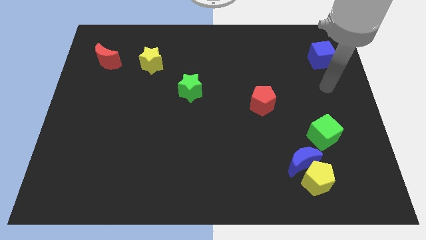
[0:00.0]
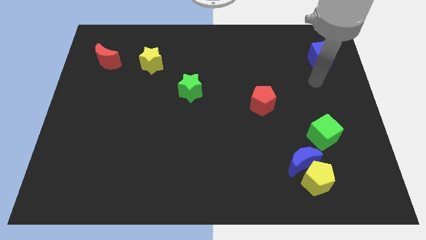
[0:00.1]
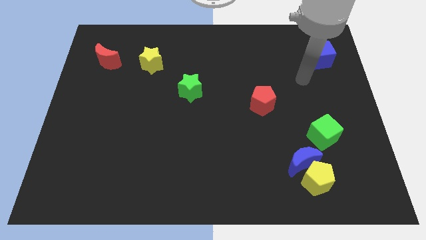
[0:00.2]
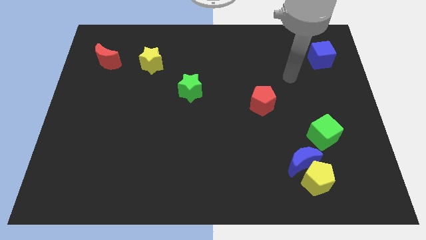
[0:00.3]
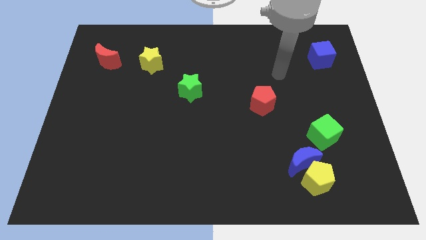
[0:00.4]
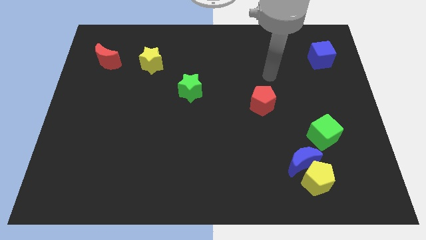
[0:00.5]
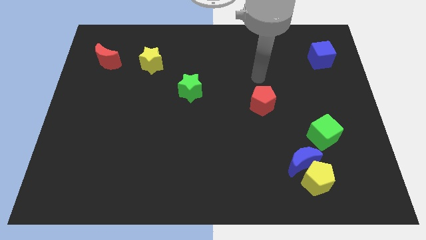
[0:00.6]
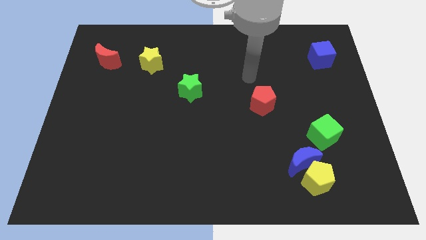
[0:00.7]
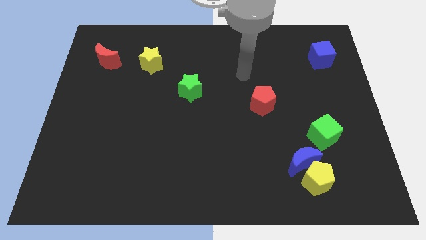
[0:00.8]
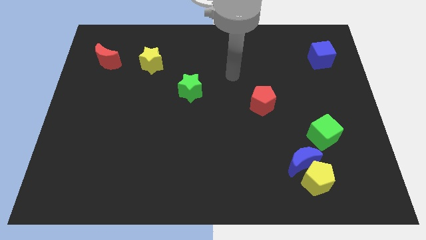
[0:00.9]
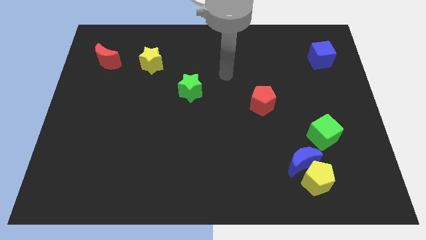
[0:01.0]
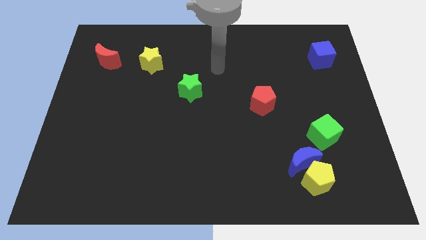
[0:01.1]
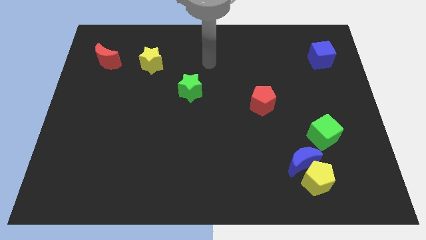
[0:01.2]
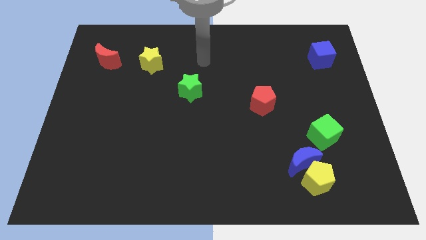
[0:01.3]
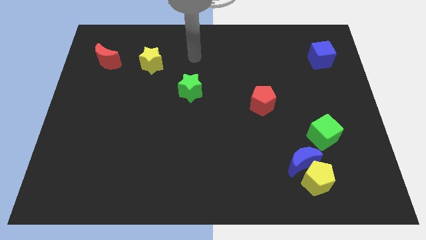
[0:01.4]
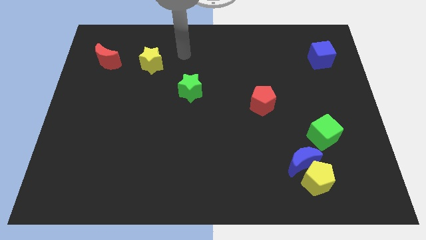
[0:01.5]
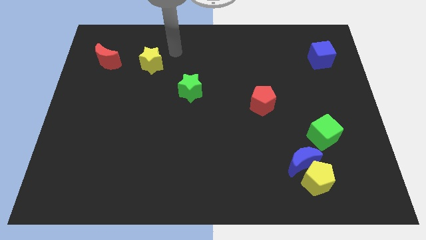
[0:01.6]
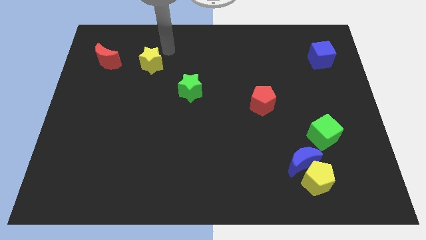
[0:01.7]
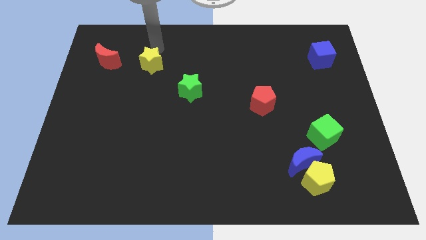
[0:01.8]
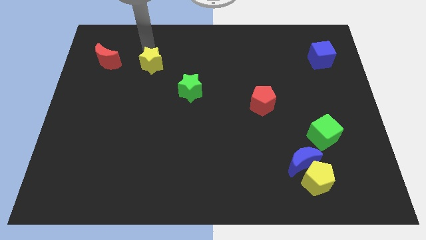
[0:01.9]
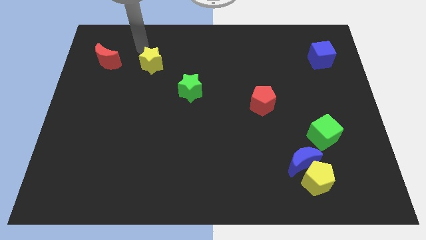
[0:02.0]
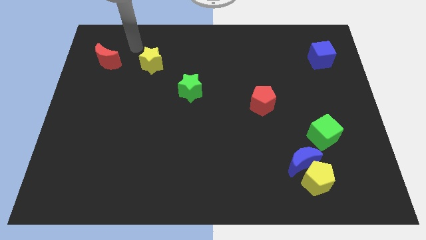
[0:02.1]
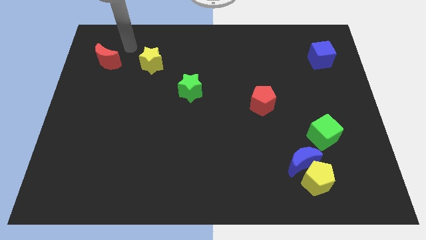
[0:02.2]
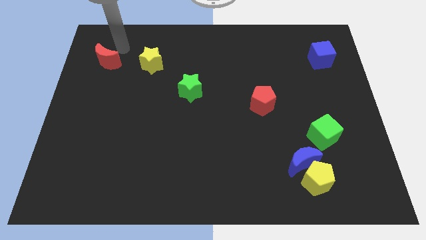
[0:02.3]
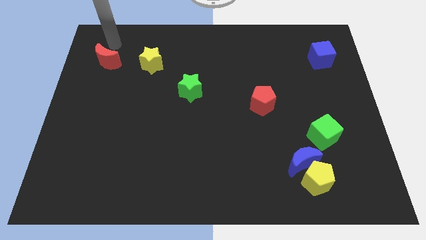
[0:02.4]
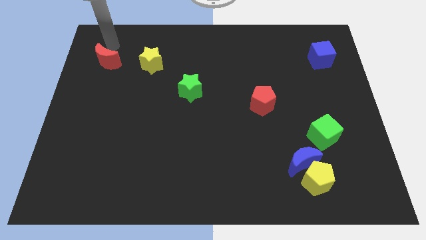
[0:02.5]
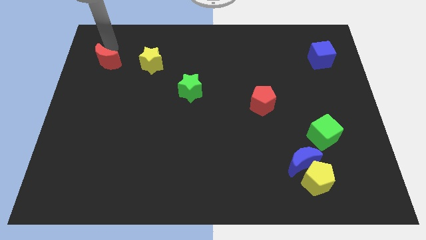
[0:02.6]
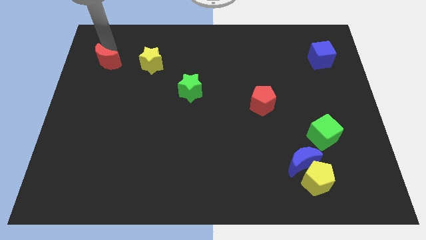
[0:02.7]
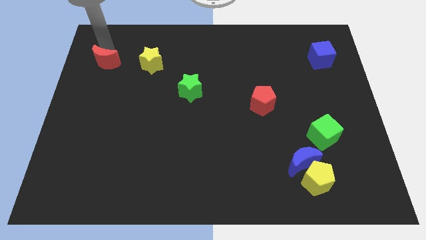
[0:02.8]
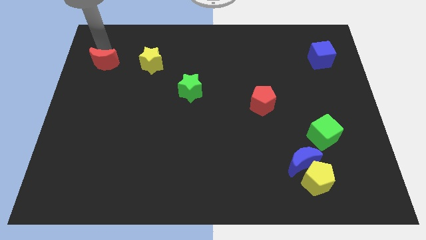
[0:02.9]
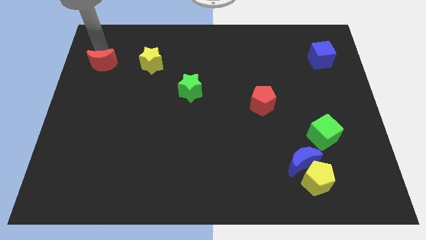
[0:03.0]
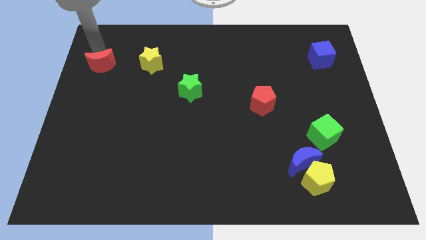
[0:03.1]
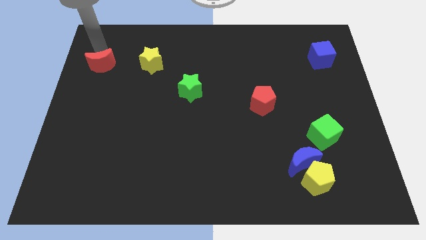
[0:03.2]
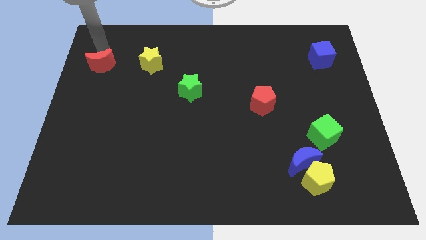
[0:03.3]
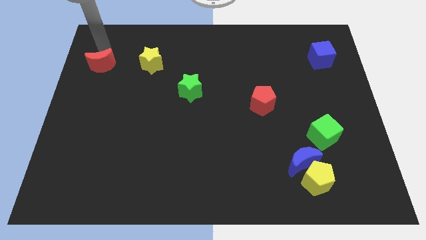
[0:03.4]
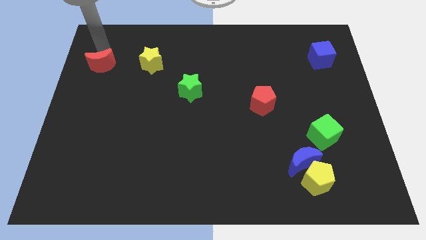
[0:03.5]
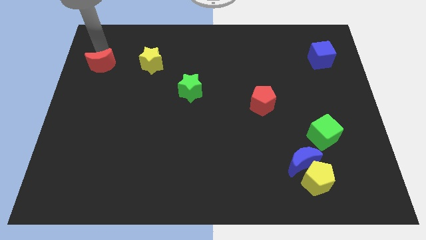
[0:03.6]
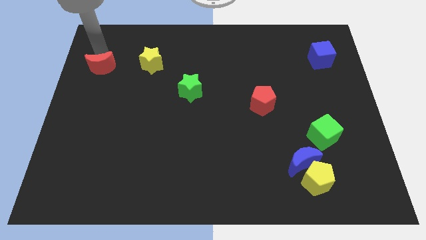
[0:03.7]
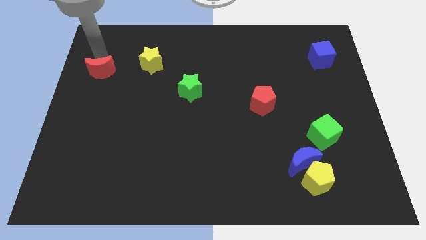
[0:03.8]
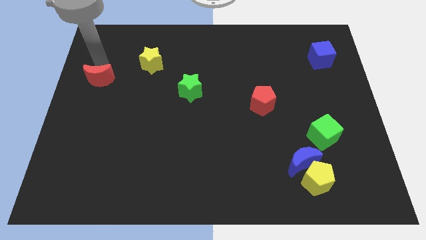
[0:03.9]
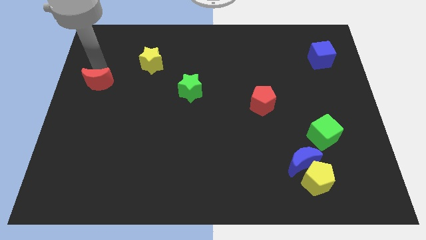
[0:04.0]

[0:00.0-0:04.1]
push the red moon a bit down

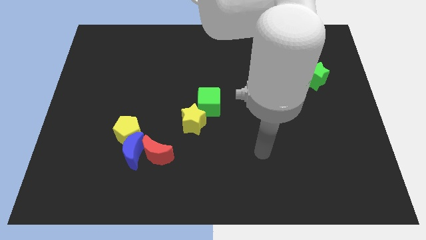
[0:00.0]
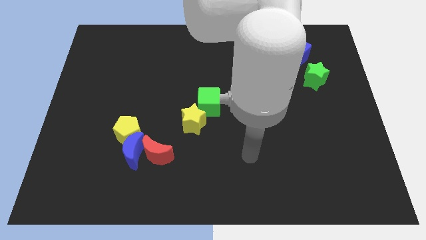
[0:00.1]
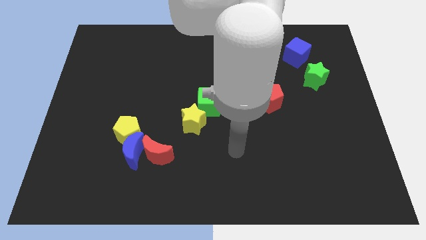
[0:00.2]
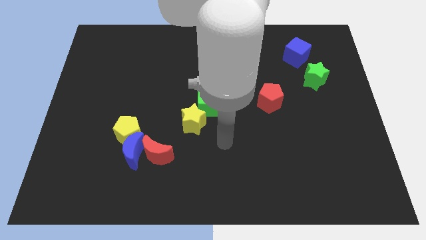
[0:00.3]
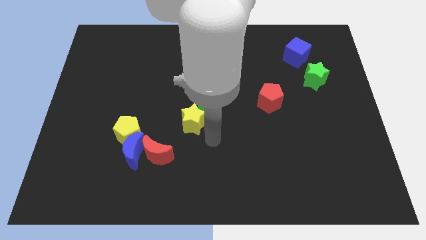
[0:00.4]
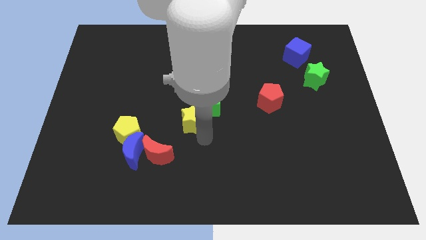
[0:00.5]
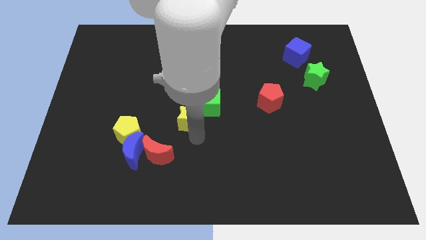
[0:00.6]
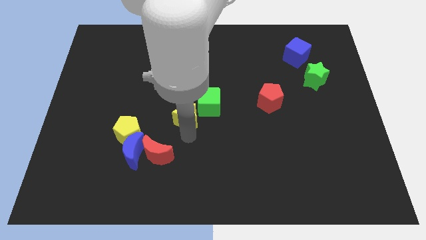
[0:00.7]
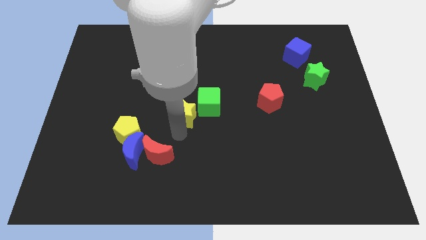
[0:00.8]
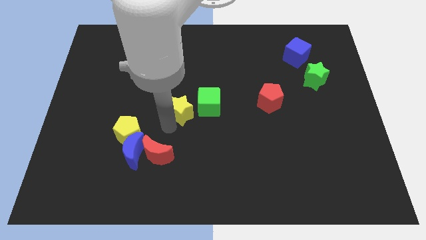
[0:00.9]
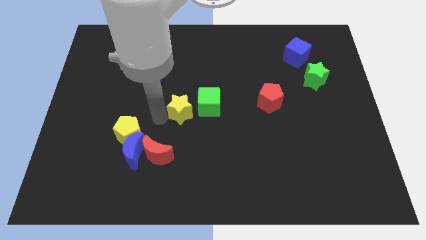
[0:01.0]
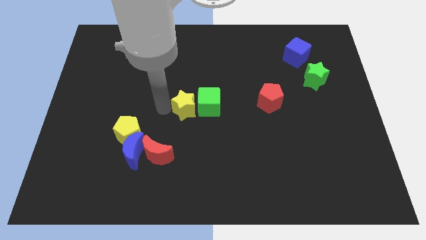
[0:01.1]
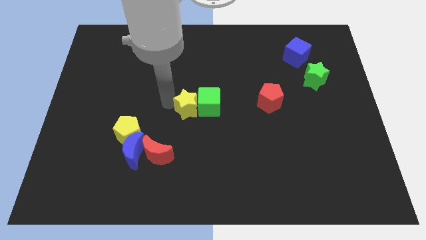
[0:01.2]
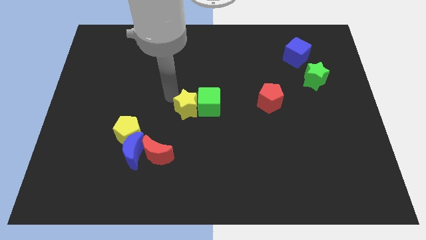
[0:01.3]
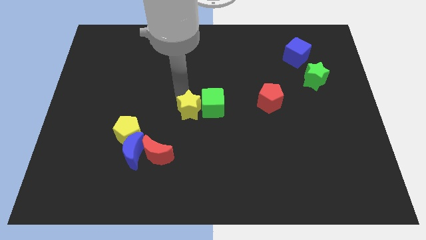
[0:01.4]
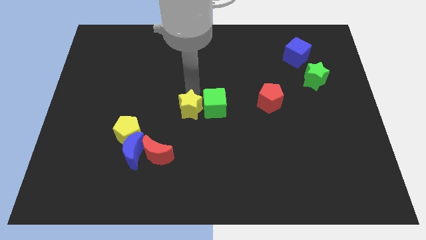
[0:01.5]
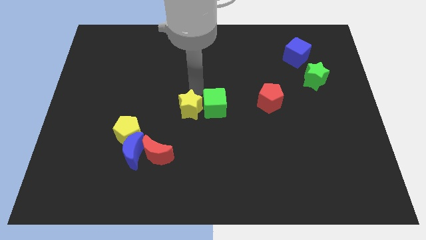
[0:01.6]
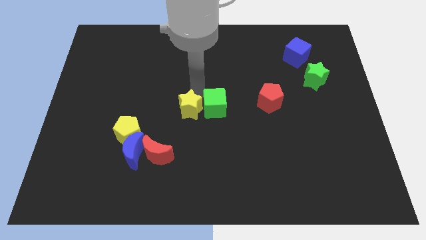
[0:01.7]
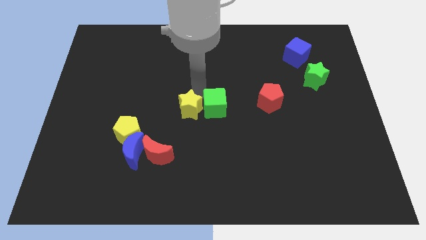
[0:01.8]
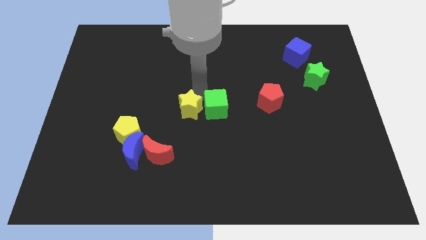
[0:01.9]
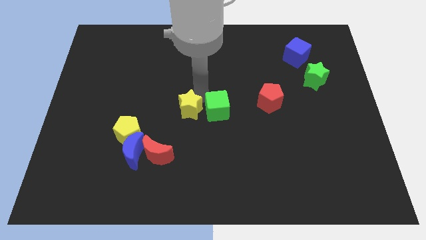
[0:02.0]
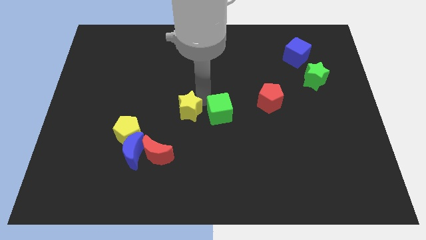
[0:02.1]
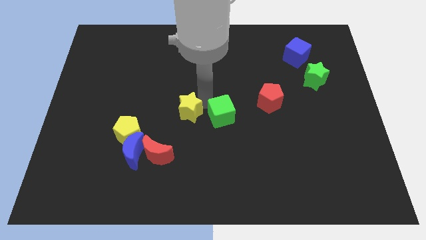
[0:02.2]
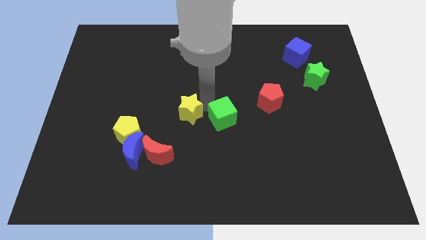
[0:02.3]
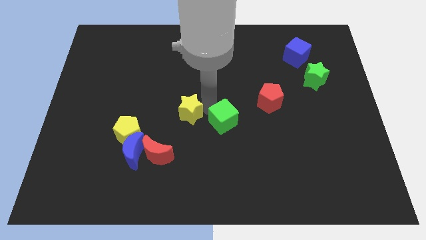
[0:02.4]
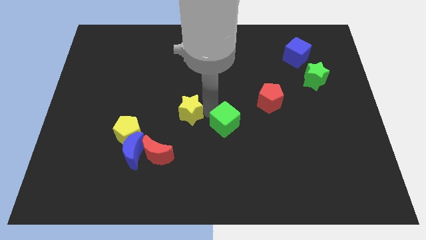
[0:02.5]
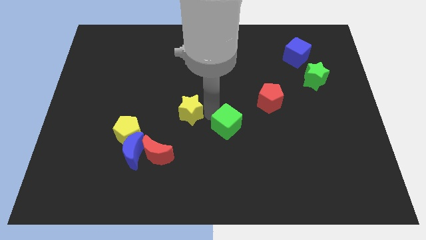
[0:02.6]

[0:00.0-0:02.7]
slide the green cube a little downwards and then right

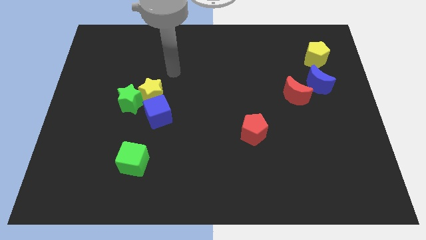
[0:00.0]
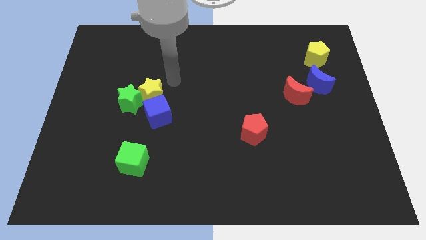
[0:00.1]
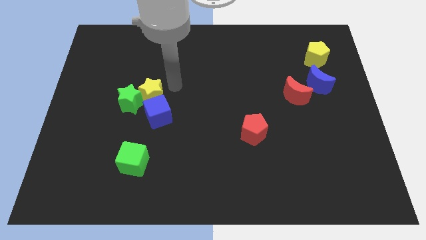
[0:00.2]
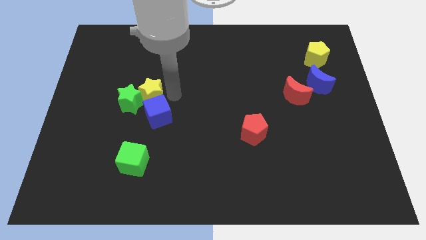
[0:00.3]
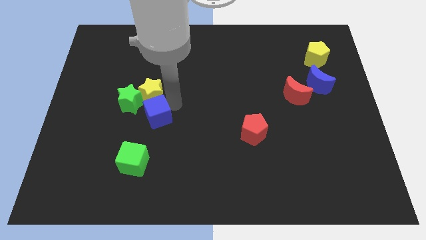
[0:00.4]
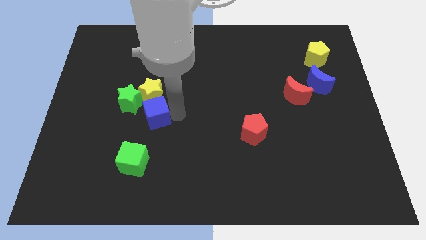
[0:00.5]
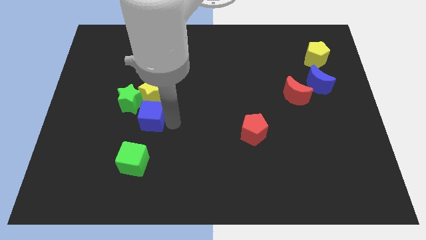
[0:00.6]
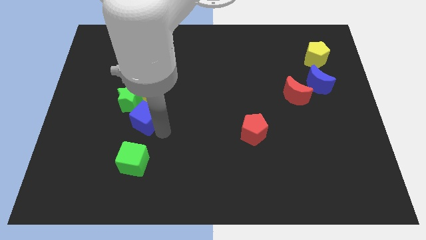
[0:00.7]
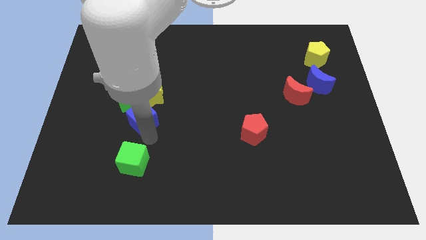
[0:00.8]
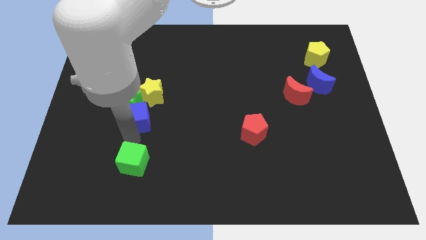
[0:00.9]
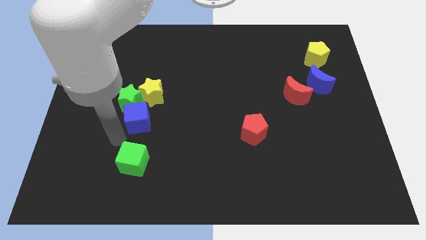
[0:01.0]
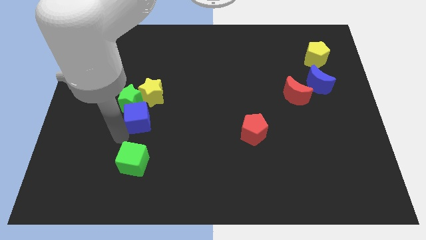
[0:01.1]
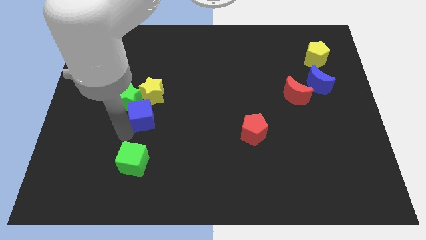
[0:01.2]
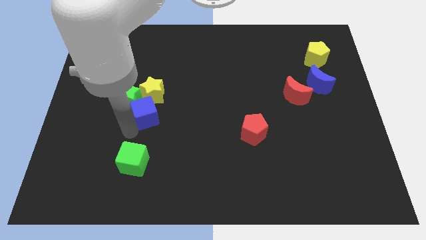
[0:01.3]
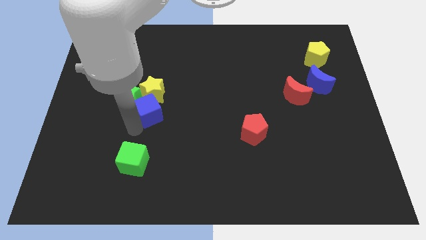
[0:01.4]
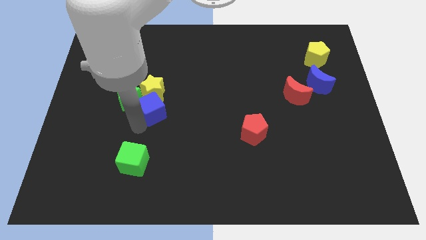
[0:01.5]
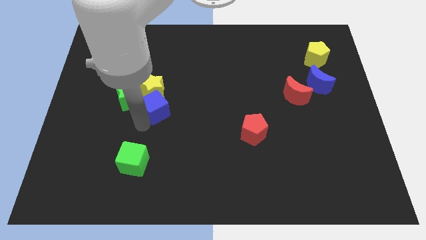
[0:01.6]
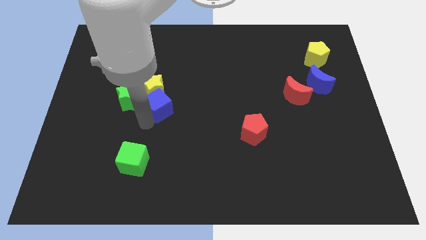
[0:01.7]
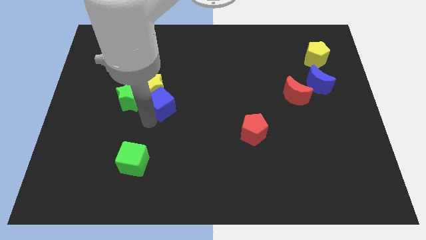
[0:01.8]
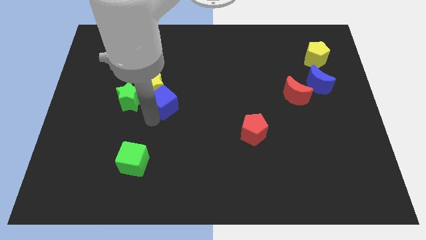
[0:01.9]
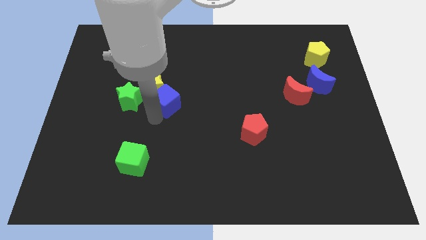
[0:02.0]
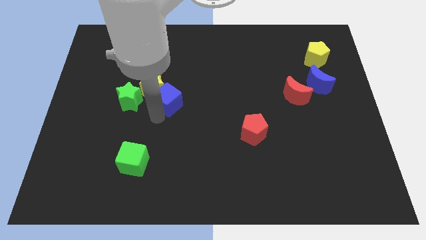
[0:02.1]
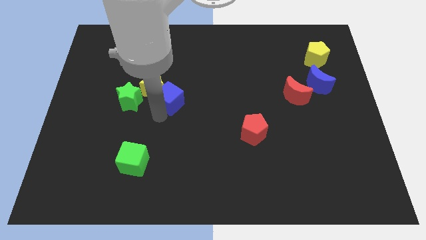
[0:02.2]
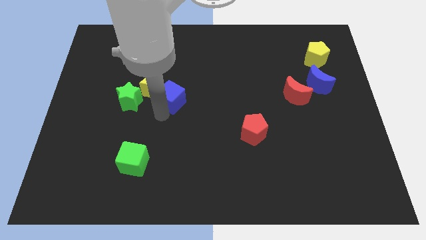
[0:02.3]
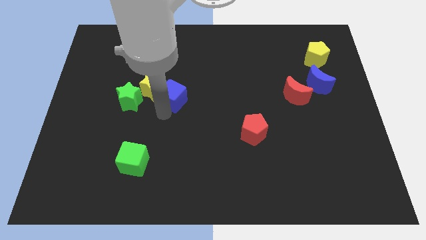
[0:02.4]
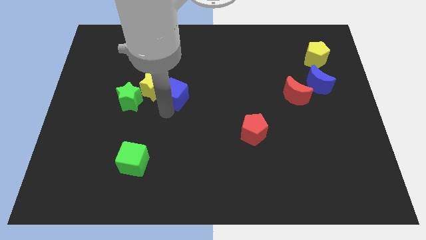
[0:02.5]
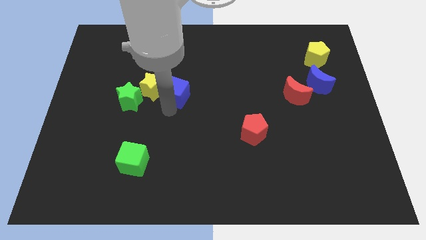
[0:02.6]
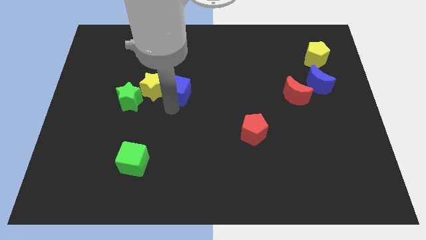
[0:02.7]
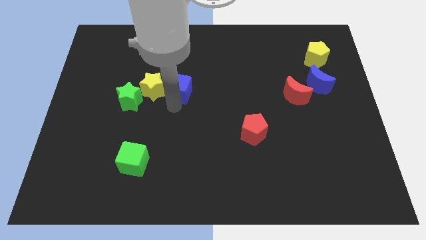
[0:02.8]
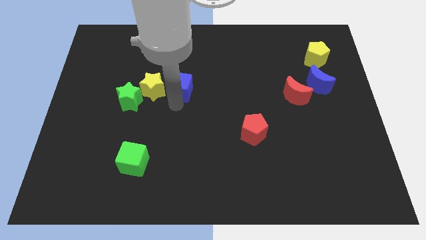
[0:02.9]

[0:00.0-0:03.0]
push the blue cube a little upwards
